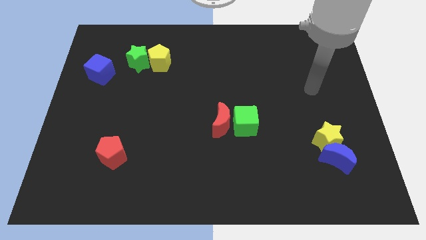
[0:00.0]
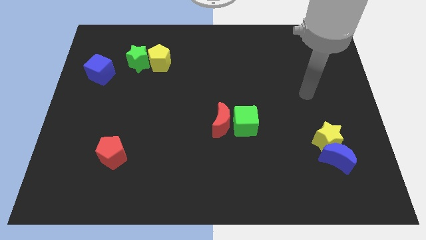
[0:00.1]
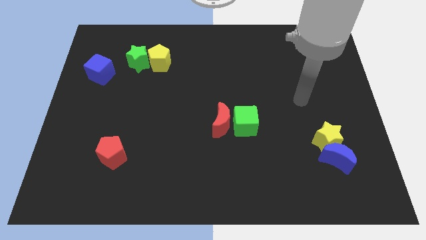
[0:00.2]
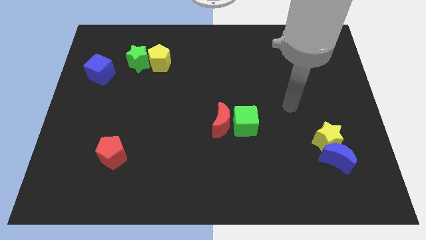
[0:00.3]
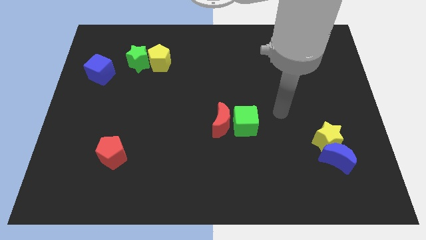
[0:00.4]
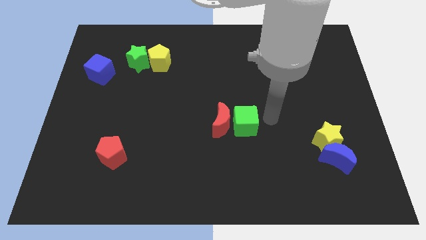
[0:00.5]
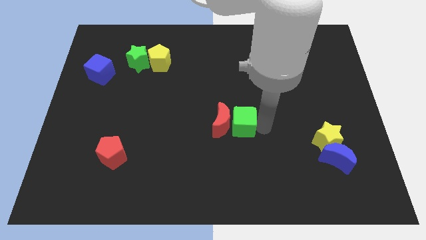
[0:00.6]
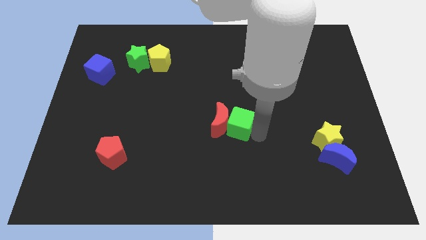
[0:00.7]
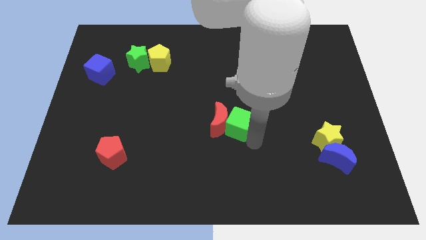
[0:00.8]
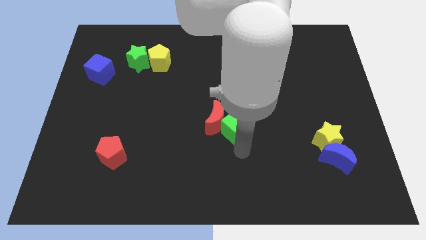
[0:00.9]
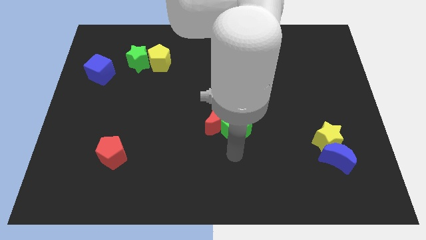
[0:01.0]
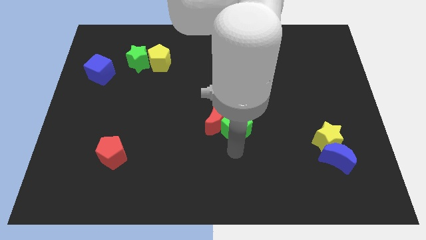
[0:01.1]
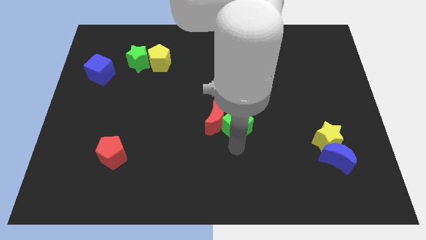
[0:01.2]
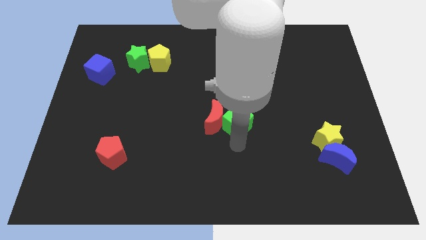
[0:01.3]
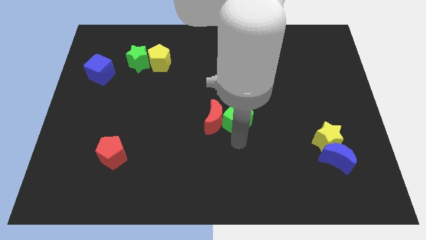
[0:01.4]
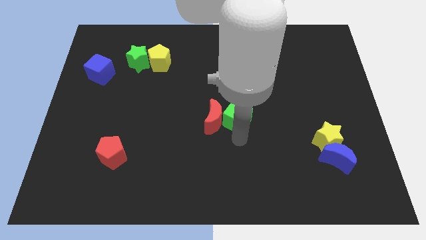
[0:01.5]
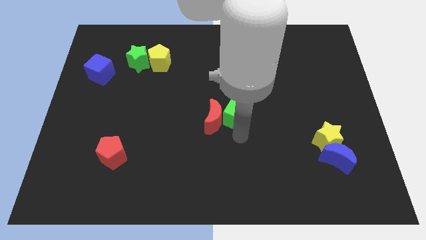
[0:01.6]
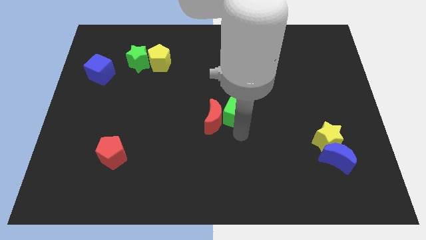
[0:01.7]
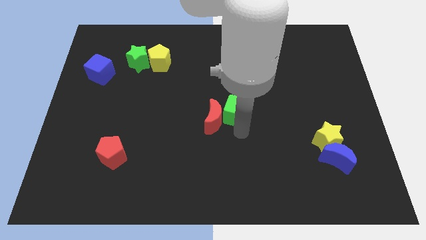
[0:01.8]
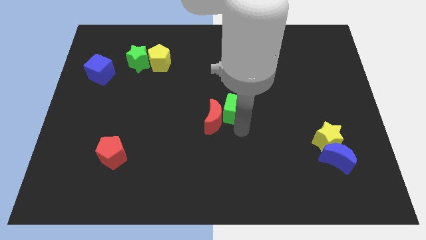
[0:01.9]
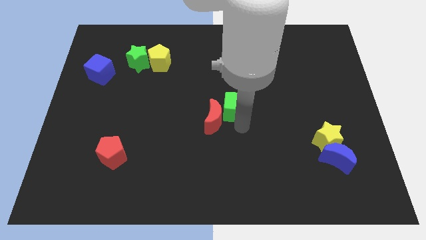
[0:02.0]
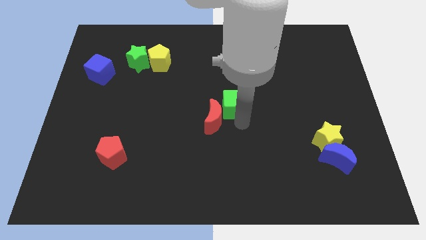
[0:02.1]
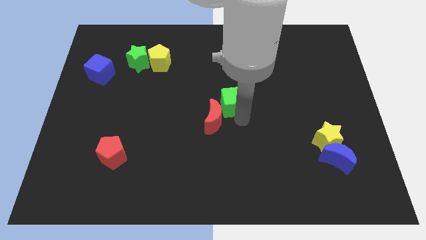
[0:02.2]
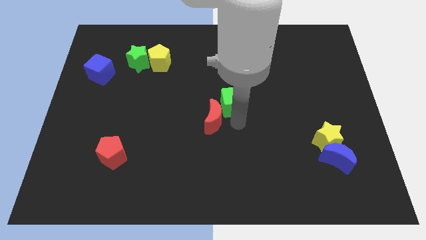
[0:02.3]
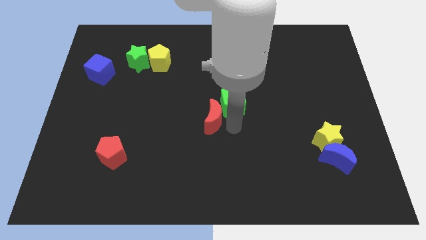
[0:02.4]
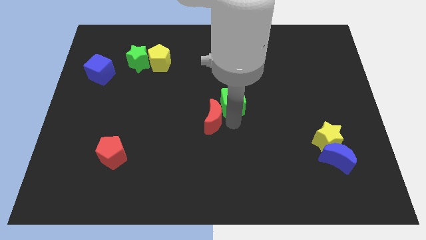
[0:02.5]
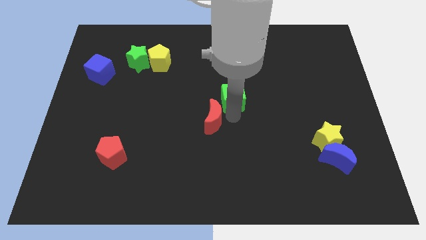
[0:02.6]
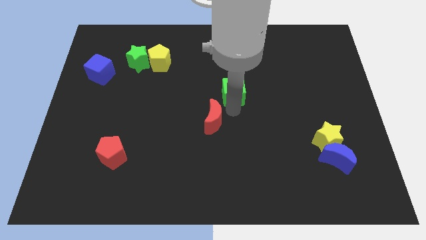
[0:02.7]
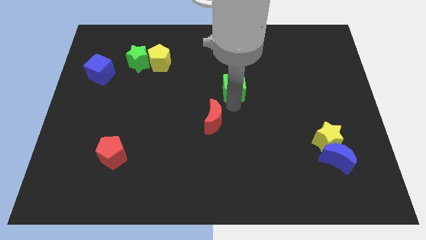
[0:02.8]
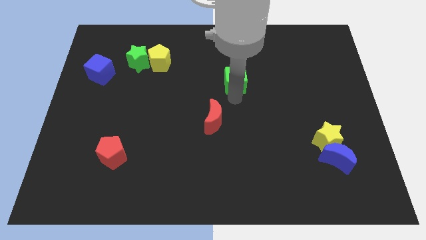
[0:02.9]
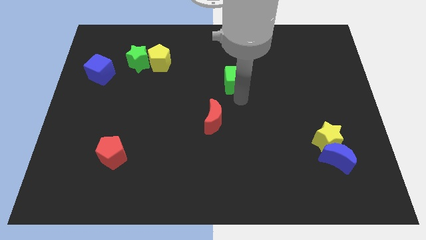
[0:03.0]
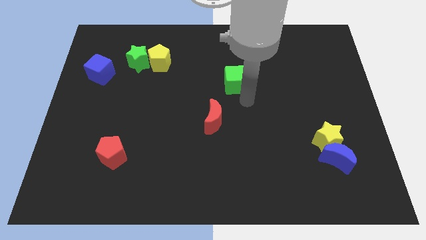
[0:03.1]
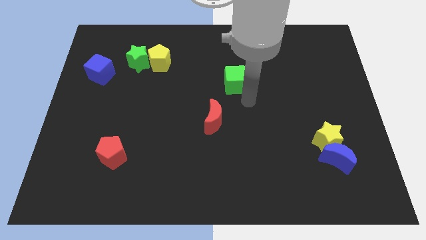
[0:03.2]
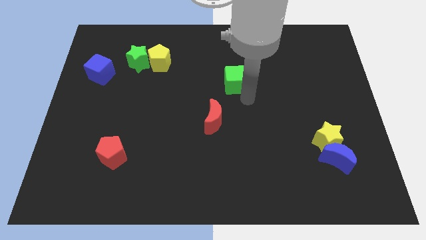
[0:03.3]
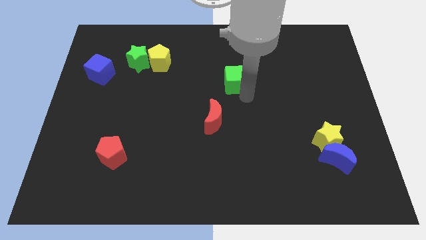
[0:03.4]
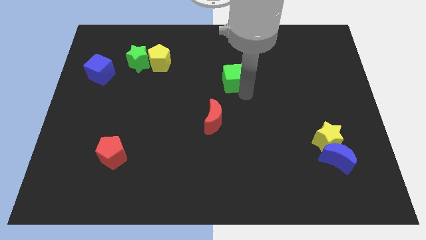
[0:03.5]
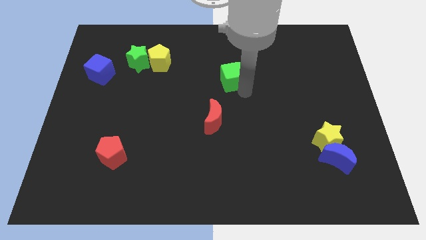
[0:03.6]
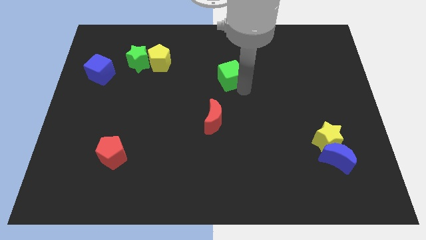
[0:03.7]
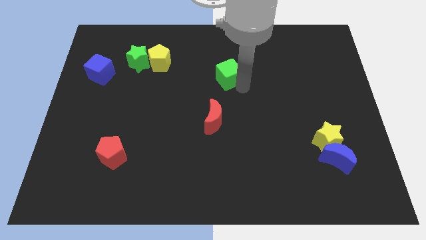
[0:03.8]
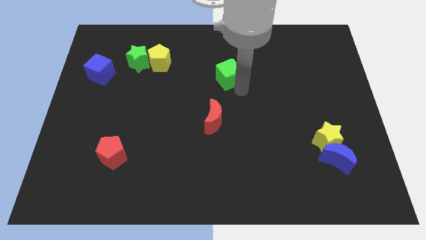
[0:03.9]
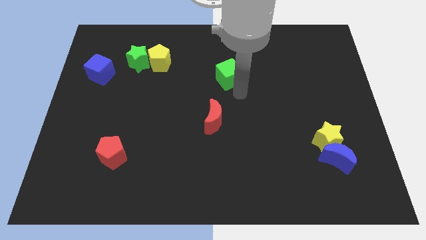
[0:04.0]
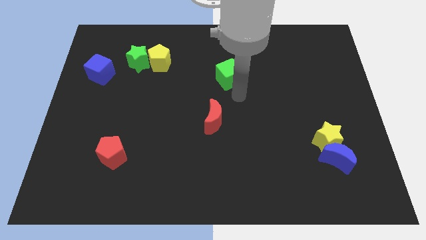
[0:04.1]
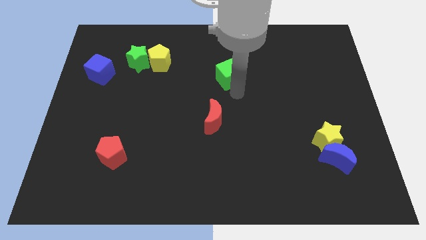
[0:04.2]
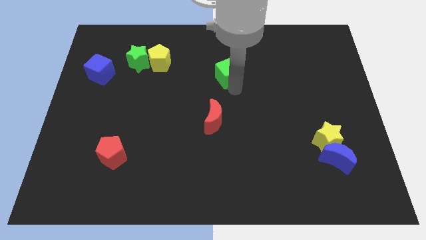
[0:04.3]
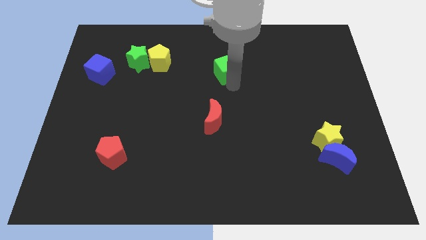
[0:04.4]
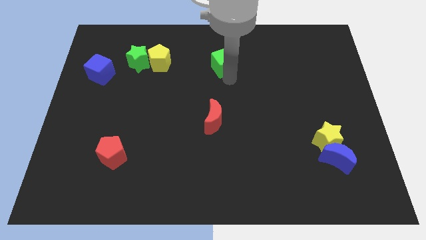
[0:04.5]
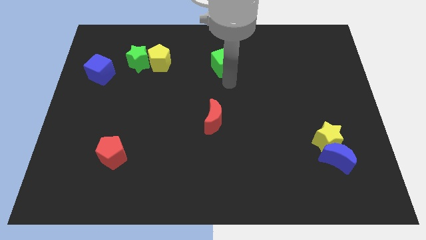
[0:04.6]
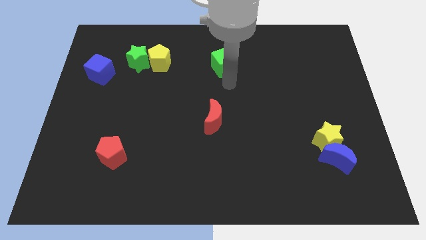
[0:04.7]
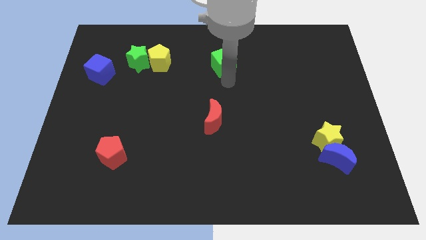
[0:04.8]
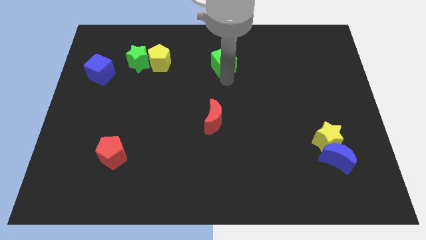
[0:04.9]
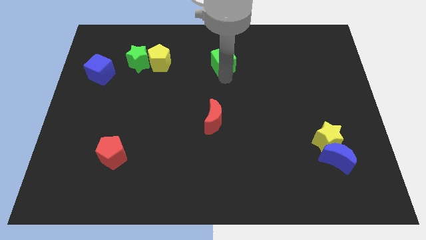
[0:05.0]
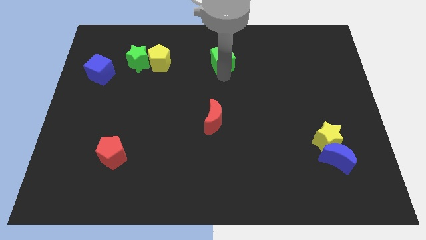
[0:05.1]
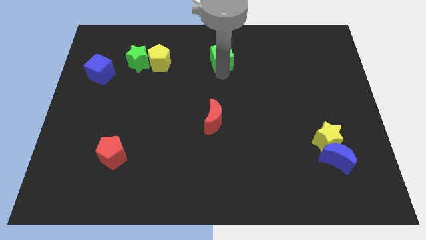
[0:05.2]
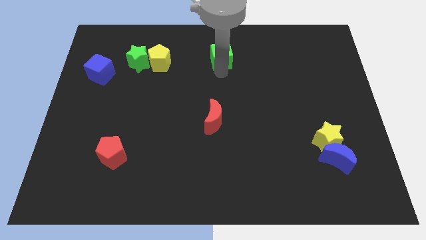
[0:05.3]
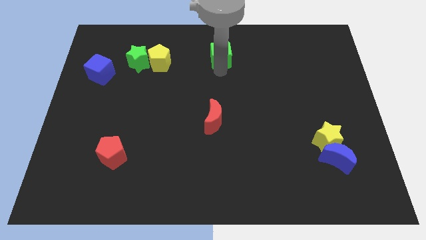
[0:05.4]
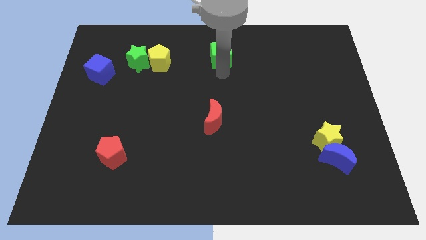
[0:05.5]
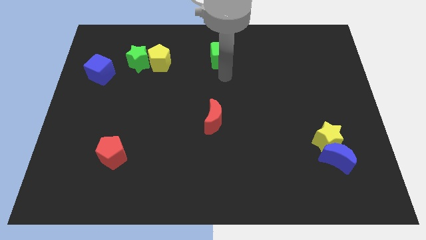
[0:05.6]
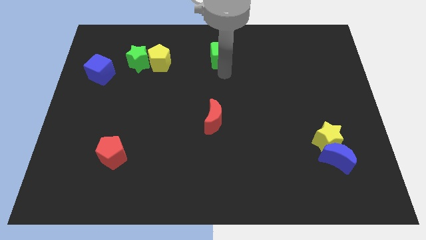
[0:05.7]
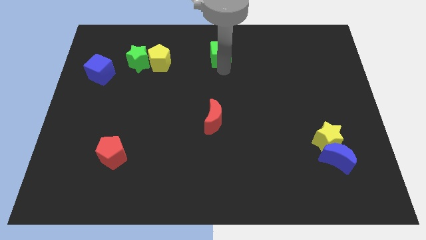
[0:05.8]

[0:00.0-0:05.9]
push the green cube to the top

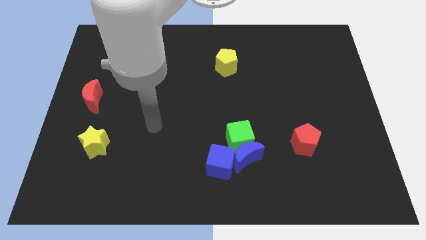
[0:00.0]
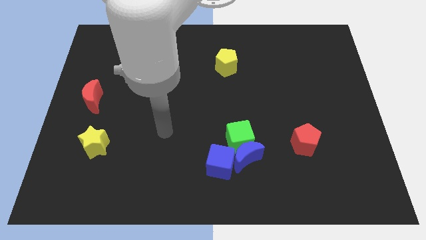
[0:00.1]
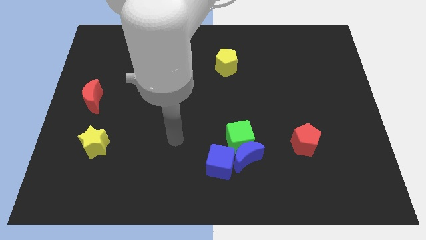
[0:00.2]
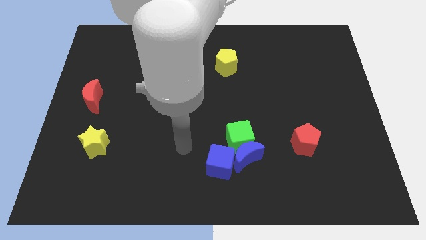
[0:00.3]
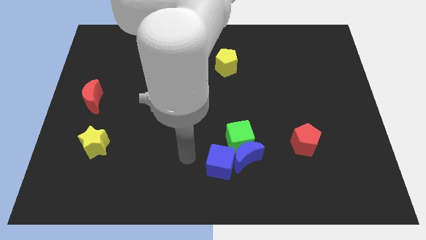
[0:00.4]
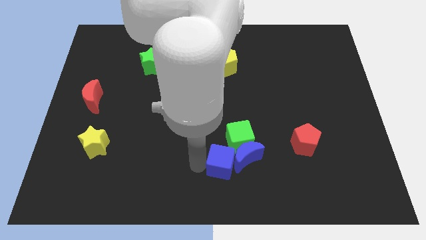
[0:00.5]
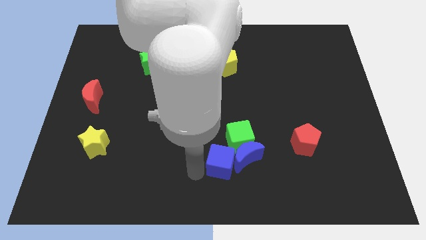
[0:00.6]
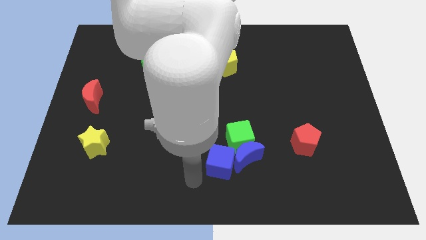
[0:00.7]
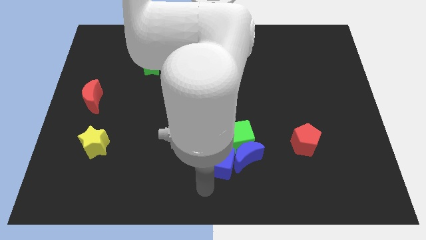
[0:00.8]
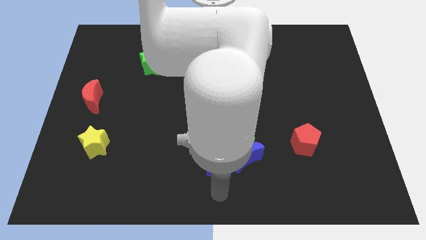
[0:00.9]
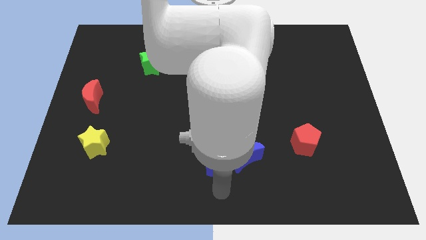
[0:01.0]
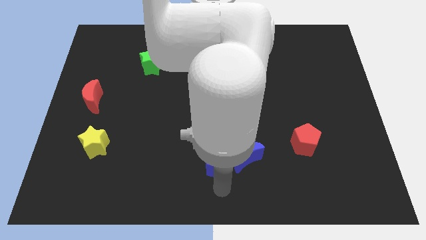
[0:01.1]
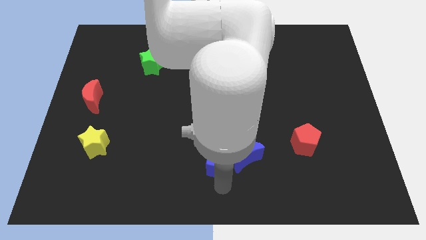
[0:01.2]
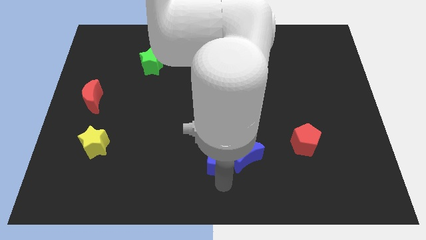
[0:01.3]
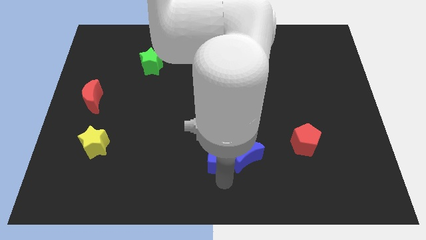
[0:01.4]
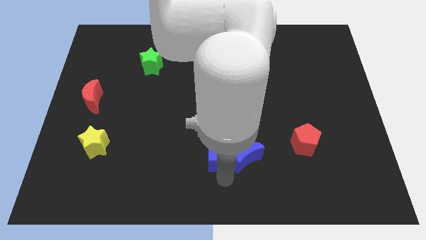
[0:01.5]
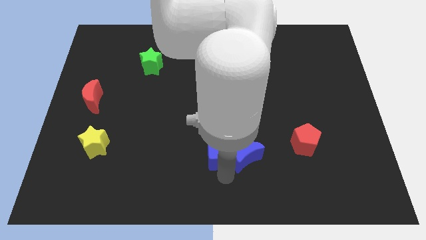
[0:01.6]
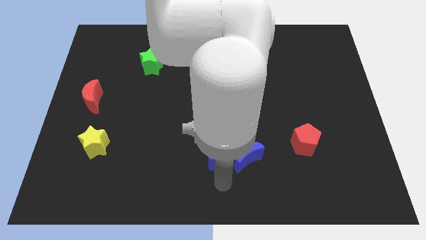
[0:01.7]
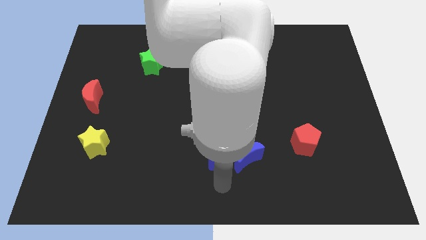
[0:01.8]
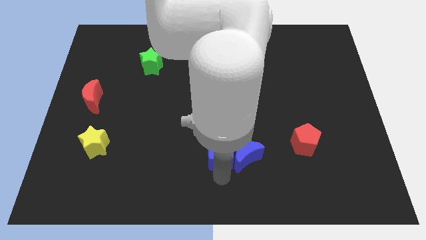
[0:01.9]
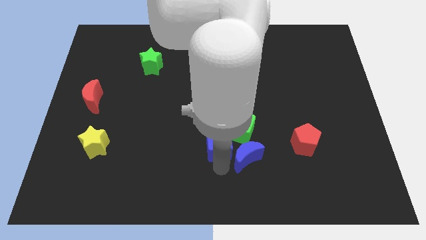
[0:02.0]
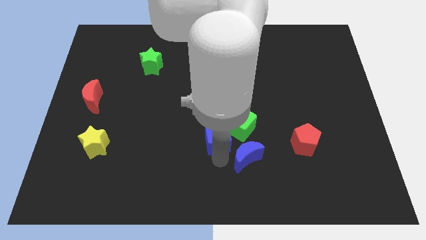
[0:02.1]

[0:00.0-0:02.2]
push the blue cube to the middle
